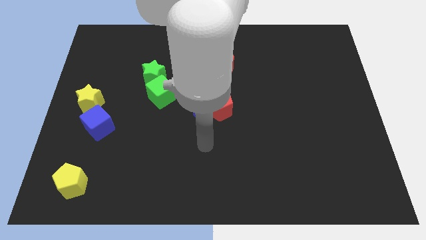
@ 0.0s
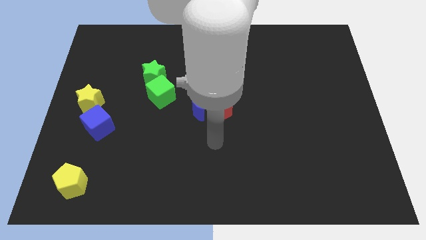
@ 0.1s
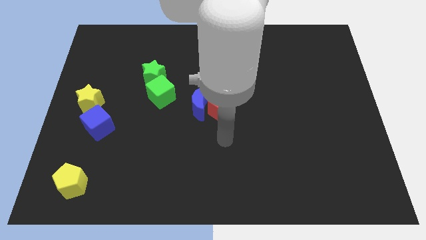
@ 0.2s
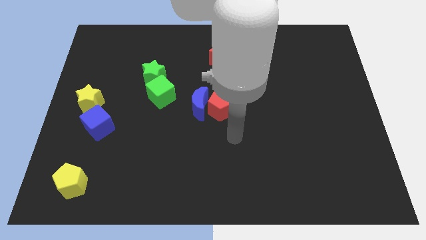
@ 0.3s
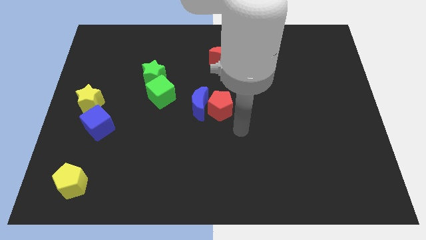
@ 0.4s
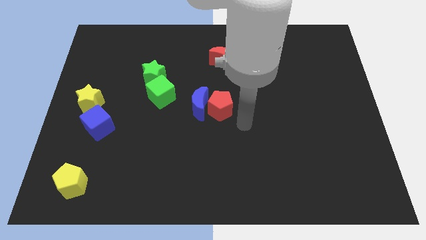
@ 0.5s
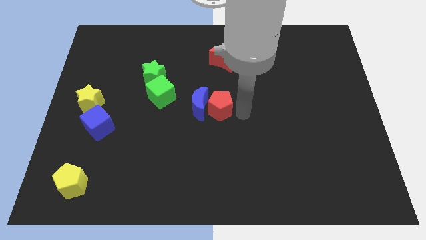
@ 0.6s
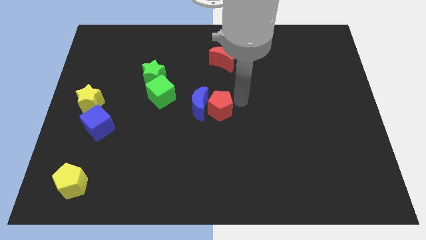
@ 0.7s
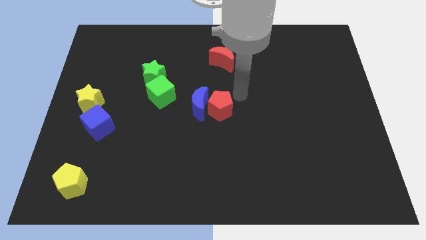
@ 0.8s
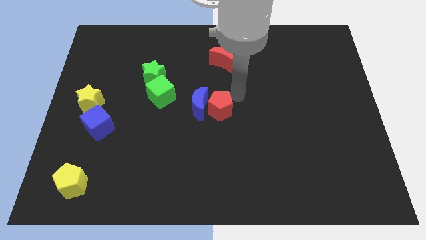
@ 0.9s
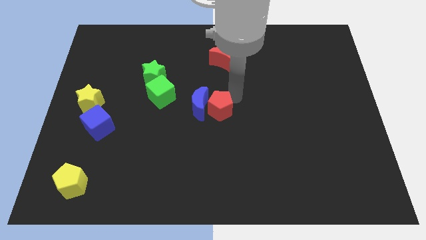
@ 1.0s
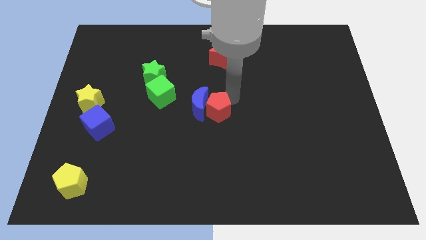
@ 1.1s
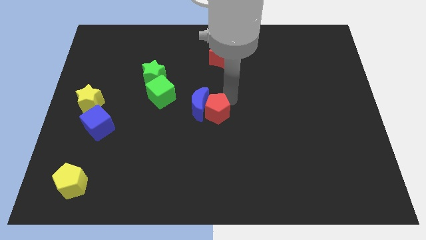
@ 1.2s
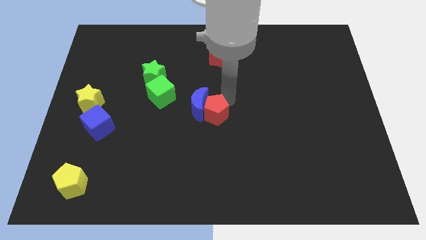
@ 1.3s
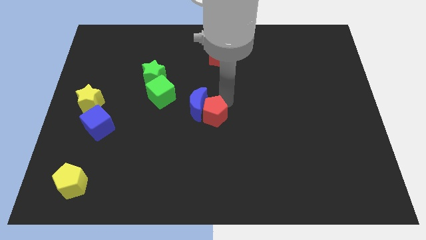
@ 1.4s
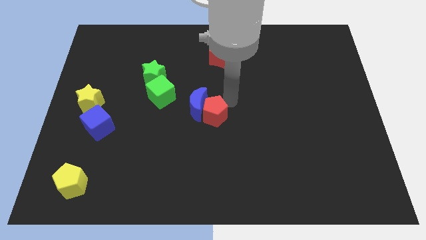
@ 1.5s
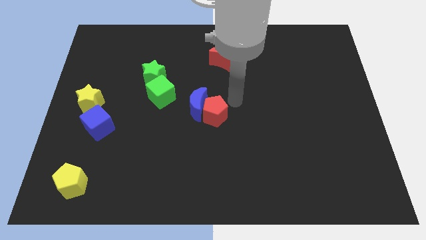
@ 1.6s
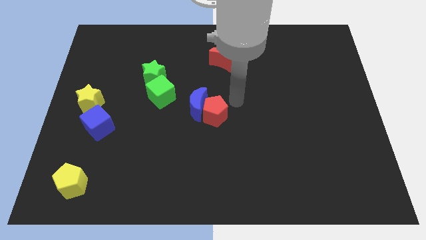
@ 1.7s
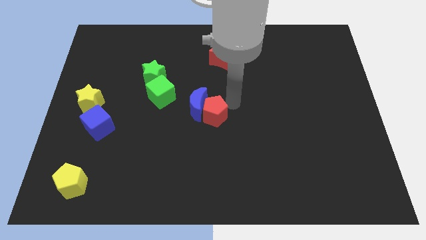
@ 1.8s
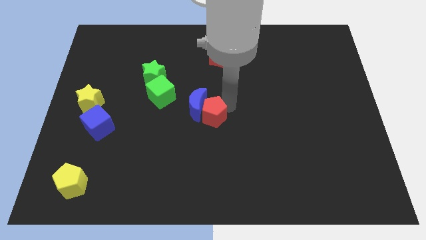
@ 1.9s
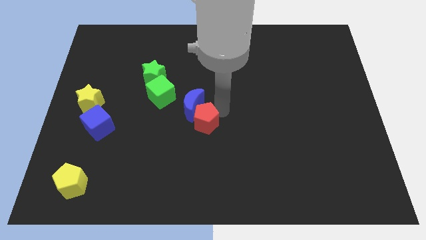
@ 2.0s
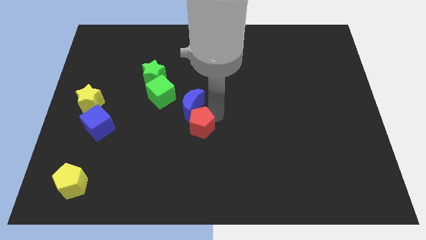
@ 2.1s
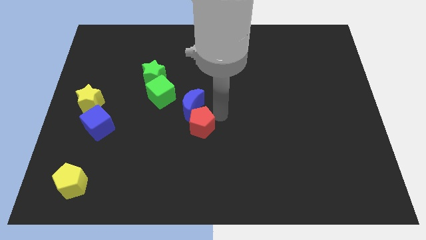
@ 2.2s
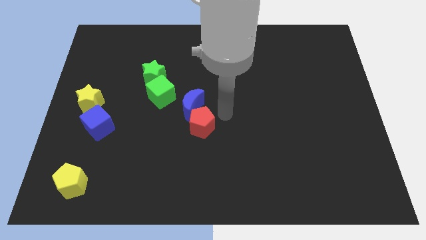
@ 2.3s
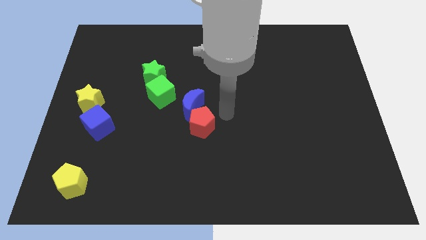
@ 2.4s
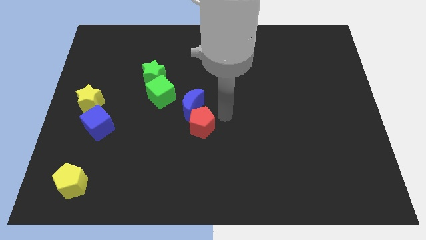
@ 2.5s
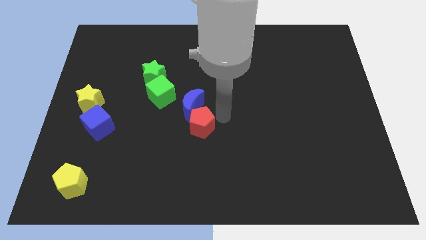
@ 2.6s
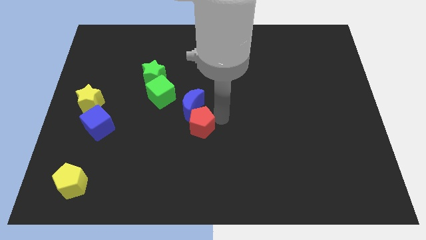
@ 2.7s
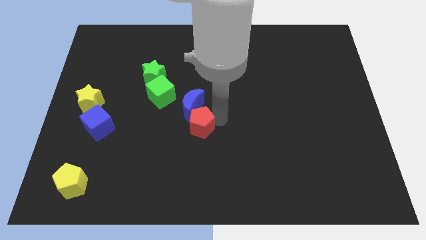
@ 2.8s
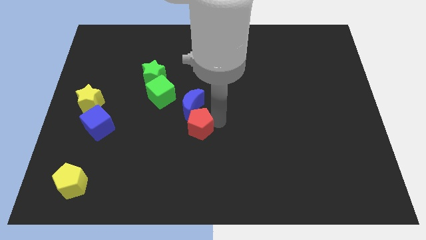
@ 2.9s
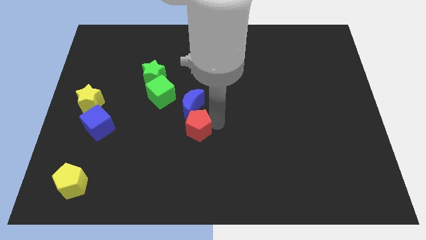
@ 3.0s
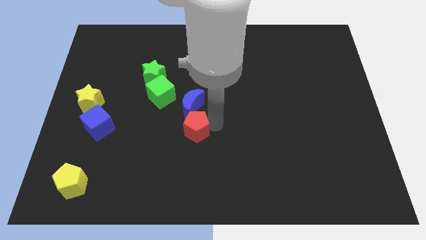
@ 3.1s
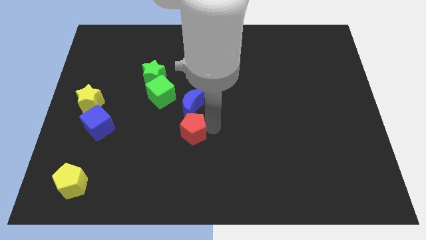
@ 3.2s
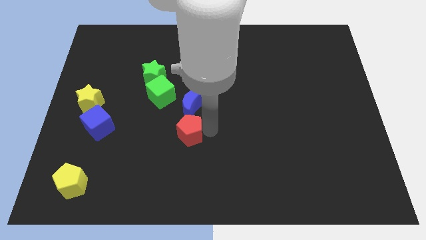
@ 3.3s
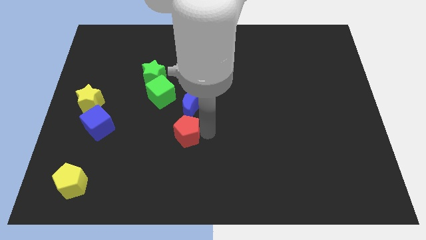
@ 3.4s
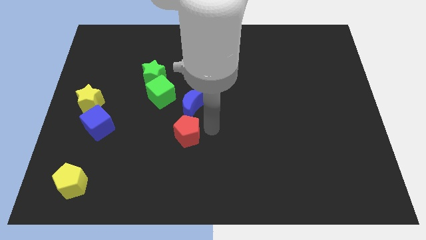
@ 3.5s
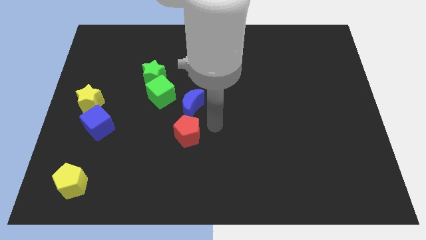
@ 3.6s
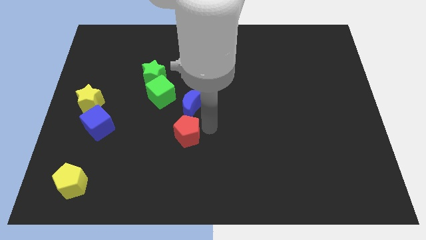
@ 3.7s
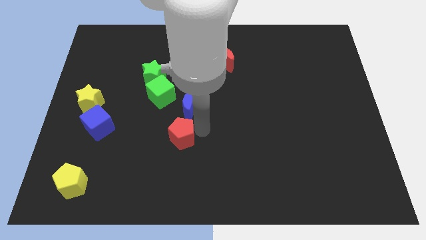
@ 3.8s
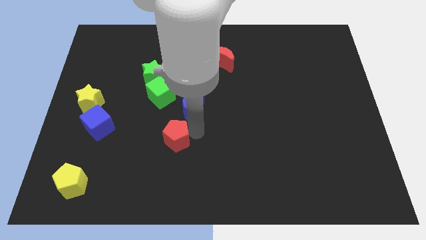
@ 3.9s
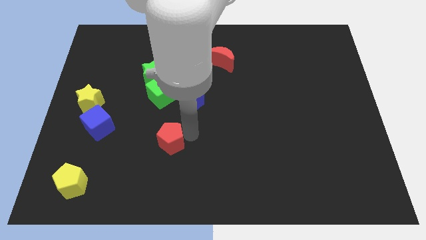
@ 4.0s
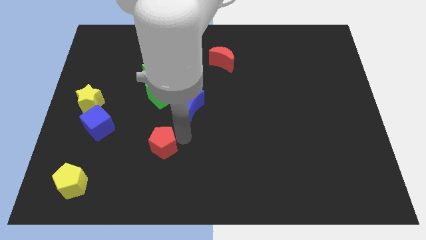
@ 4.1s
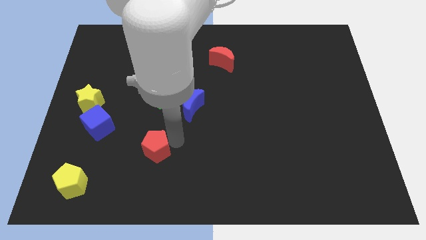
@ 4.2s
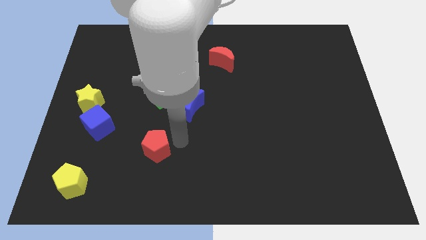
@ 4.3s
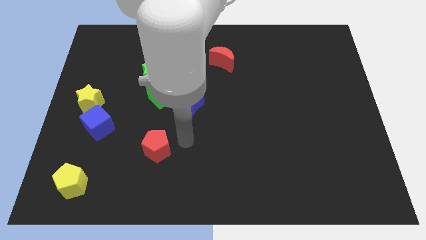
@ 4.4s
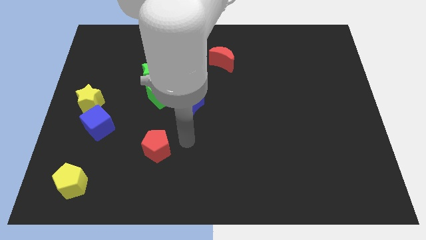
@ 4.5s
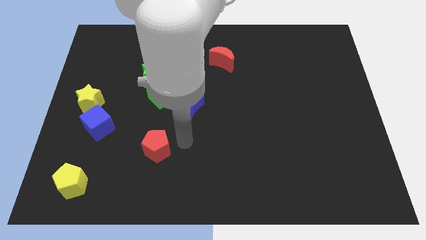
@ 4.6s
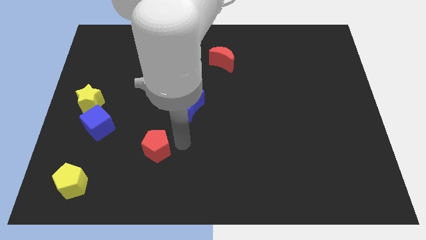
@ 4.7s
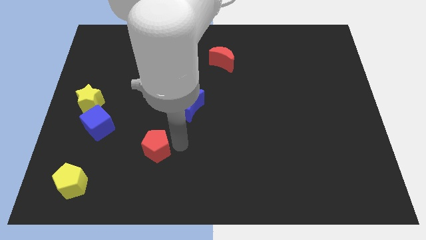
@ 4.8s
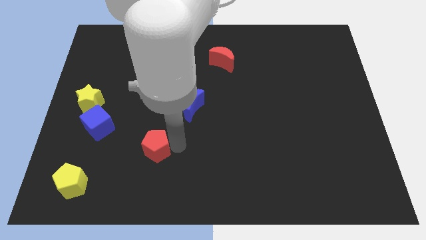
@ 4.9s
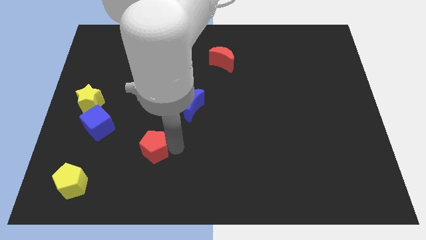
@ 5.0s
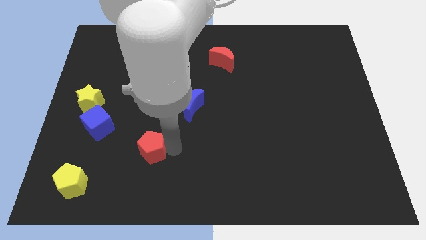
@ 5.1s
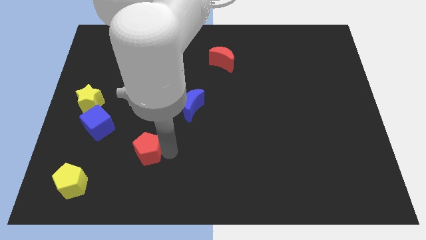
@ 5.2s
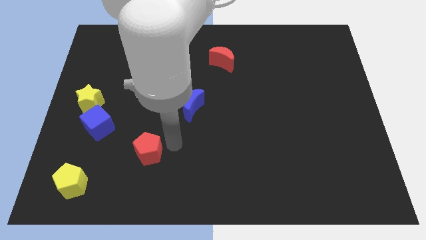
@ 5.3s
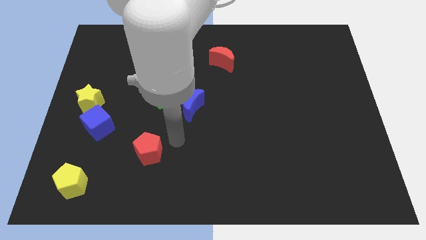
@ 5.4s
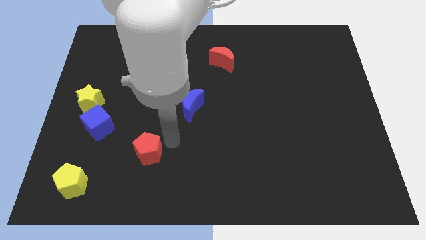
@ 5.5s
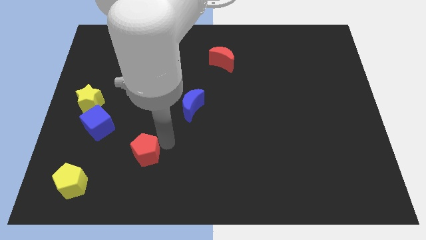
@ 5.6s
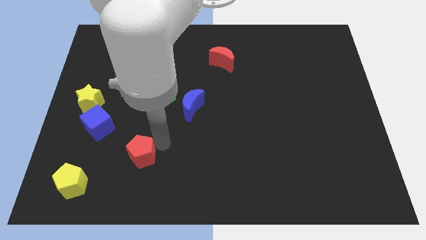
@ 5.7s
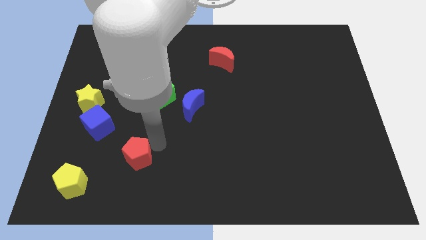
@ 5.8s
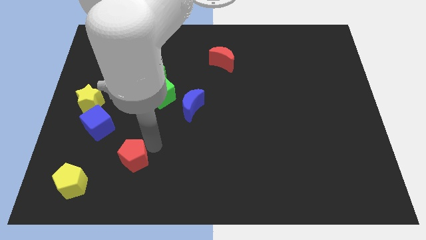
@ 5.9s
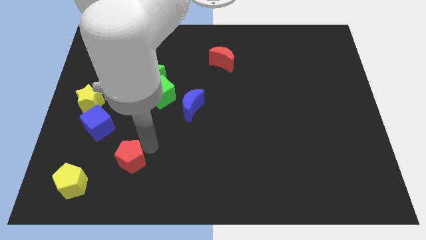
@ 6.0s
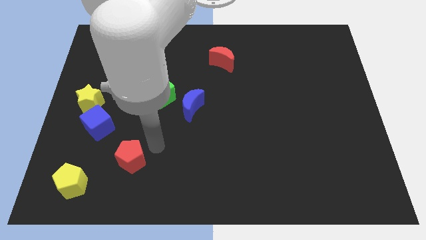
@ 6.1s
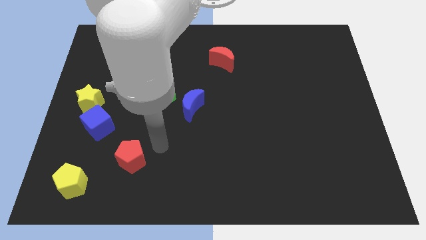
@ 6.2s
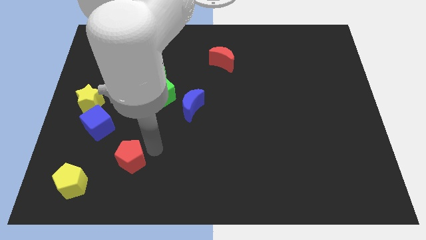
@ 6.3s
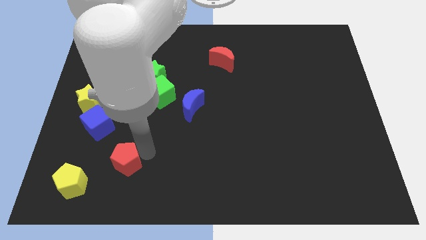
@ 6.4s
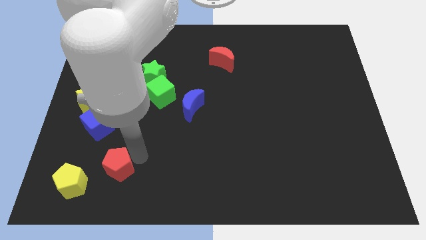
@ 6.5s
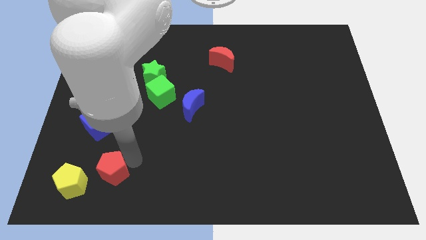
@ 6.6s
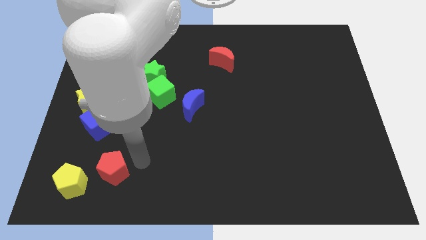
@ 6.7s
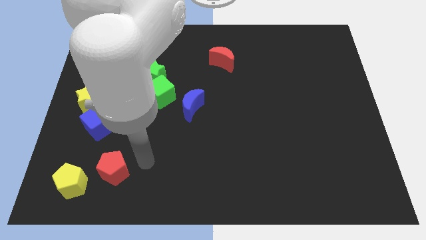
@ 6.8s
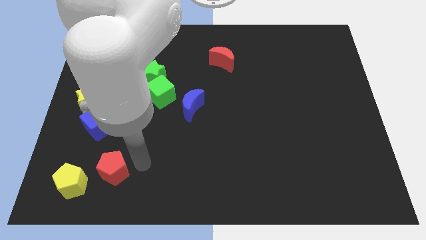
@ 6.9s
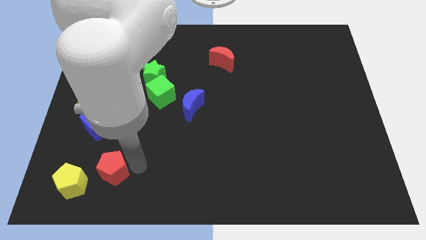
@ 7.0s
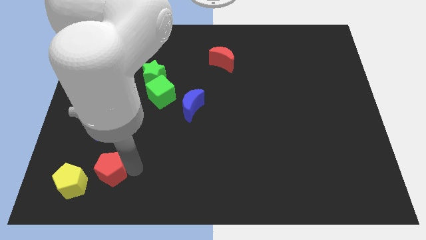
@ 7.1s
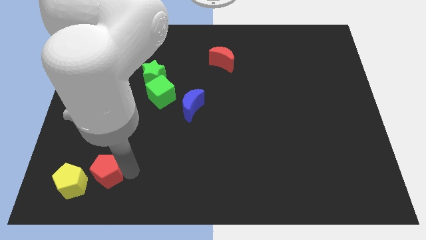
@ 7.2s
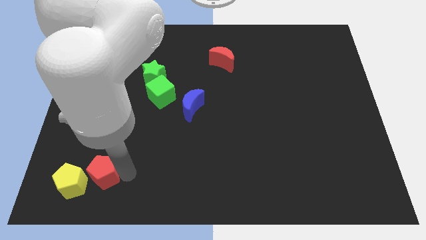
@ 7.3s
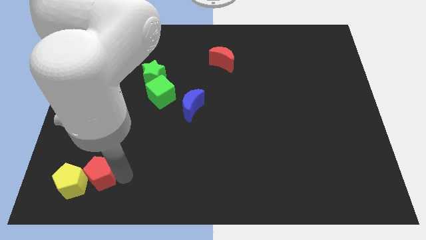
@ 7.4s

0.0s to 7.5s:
push the red pentagon towards the yellow pentagon
